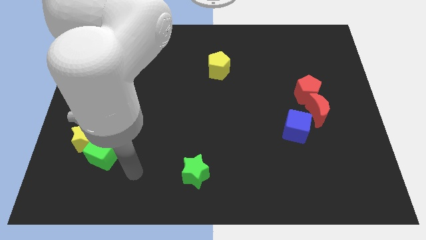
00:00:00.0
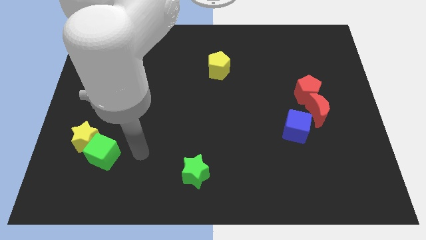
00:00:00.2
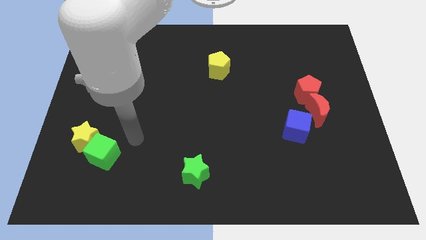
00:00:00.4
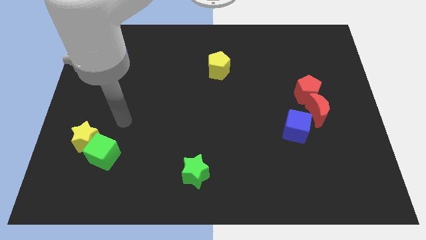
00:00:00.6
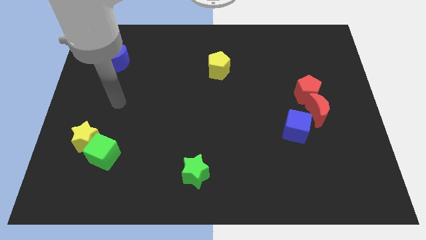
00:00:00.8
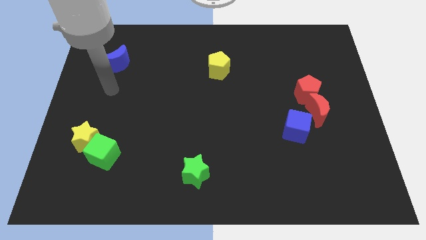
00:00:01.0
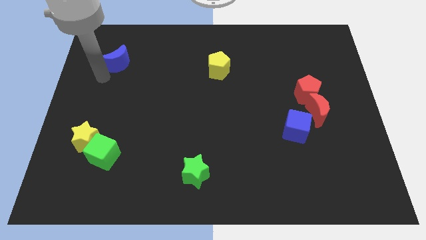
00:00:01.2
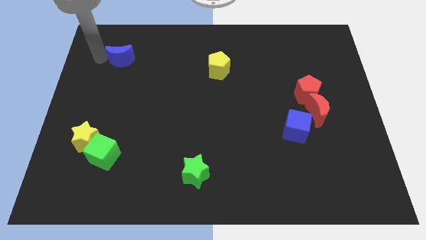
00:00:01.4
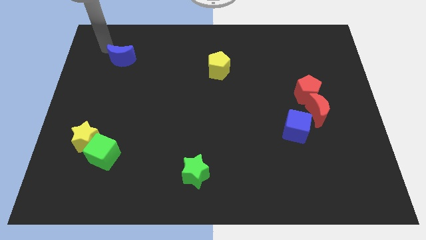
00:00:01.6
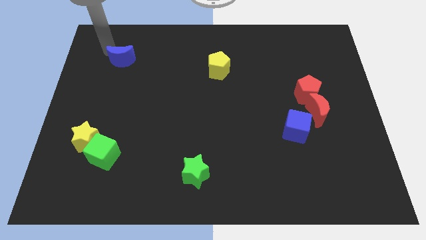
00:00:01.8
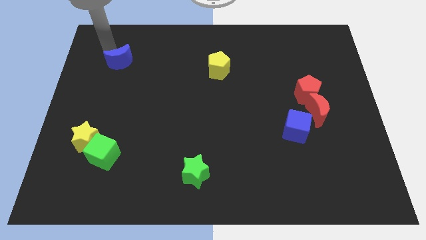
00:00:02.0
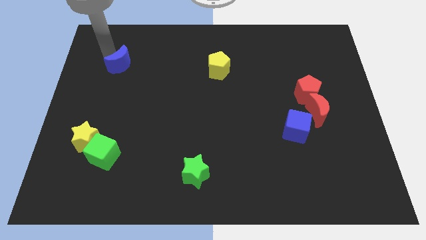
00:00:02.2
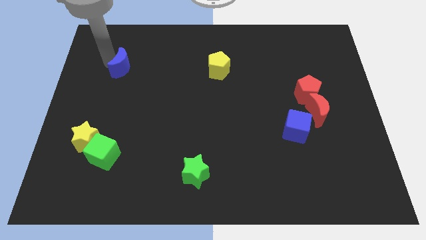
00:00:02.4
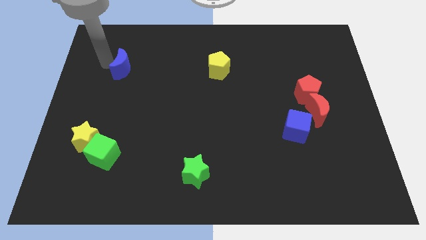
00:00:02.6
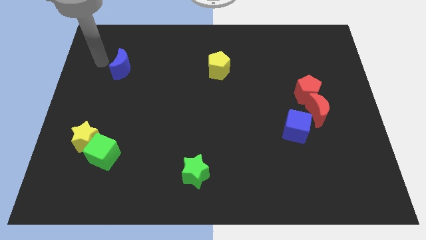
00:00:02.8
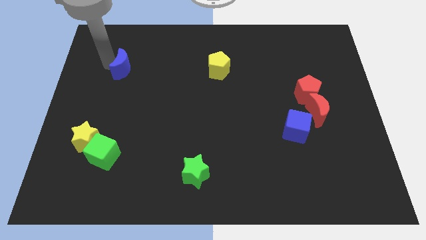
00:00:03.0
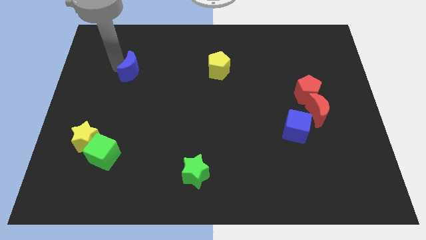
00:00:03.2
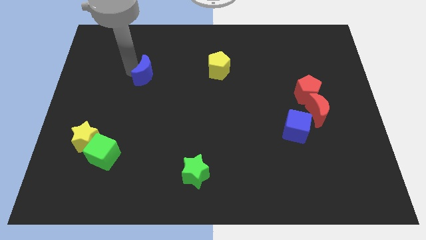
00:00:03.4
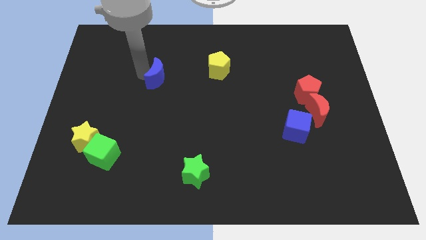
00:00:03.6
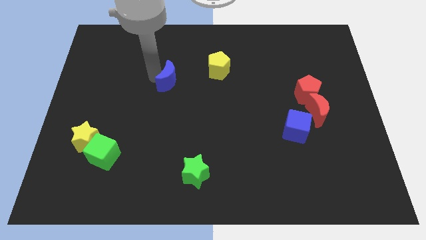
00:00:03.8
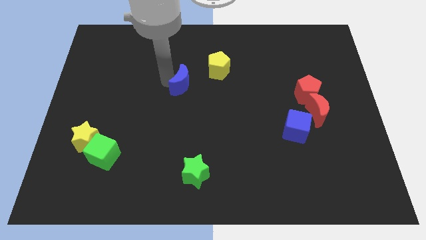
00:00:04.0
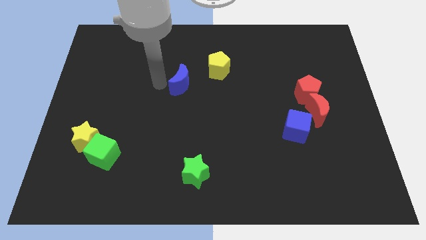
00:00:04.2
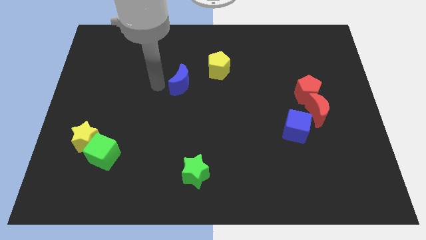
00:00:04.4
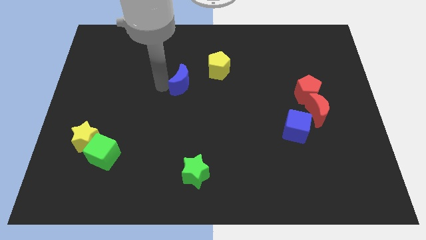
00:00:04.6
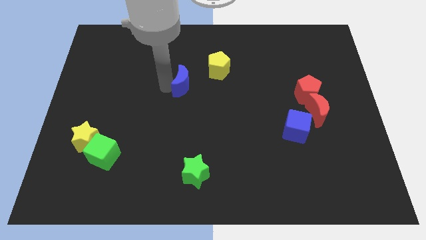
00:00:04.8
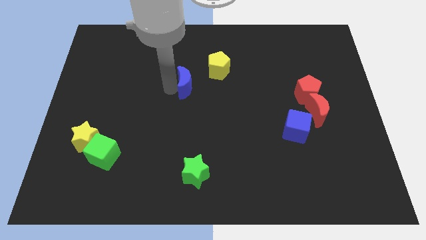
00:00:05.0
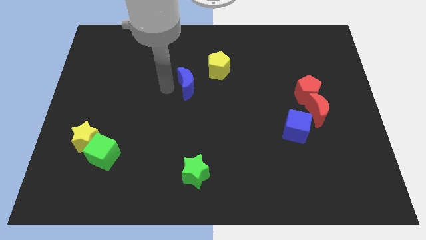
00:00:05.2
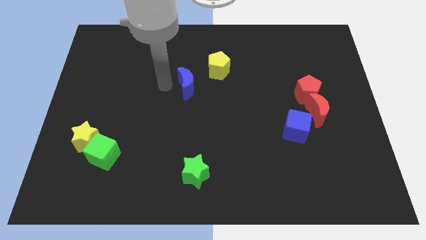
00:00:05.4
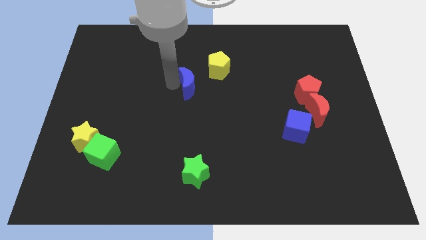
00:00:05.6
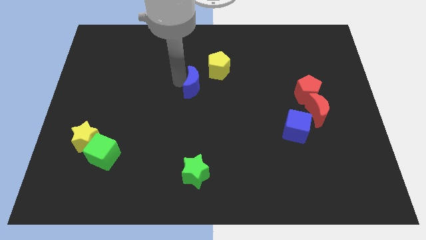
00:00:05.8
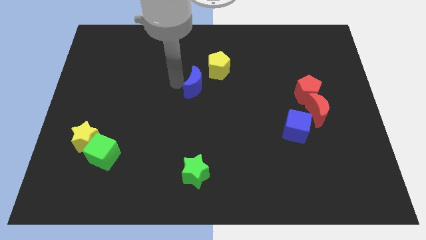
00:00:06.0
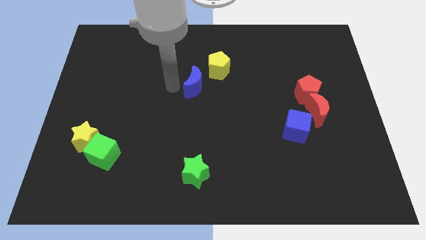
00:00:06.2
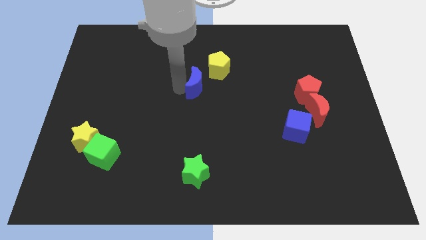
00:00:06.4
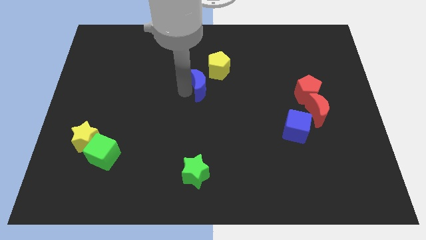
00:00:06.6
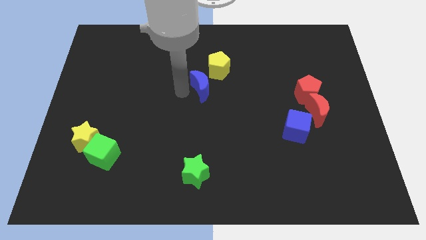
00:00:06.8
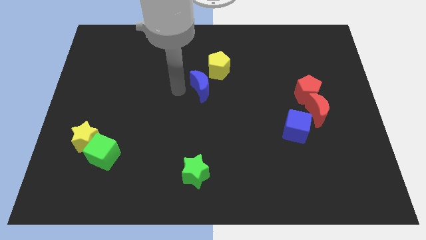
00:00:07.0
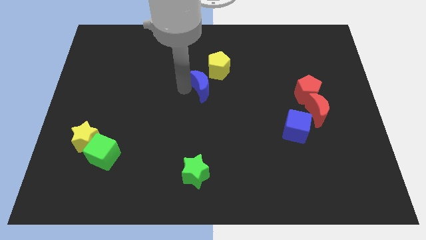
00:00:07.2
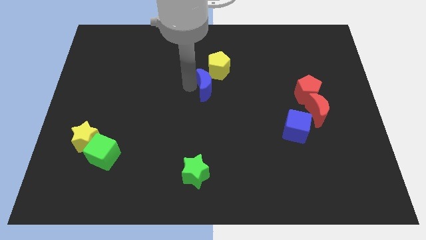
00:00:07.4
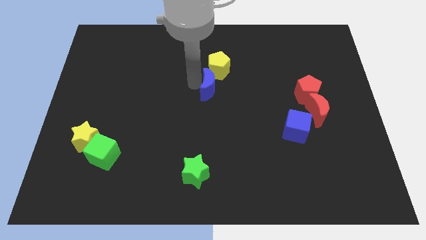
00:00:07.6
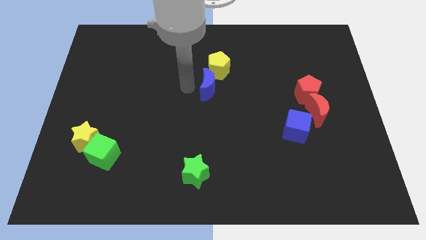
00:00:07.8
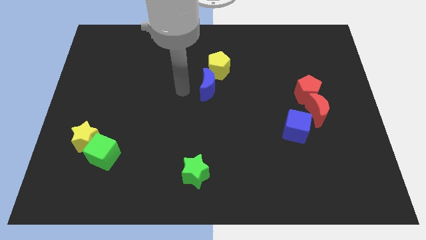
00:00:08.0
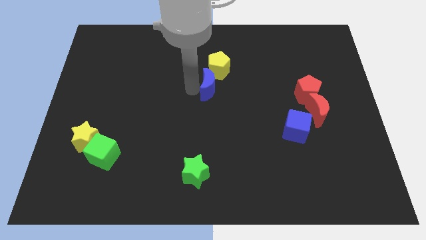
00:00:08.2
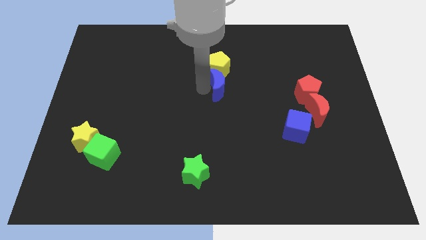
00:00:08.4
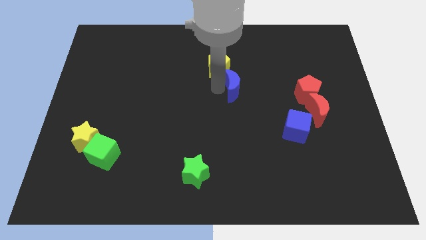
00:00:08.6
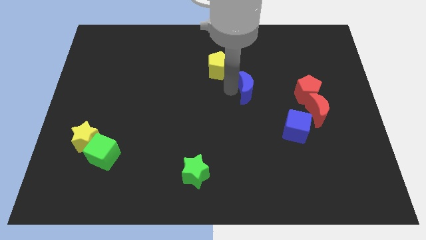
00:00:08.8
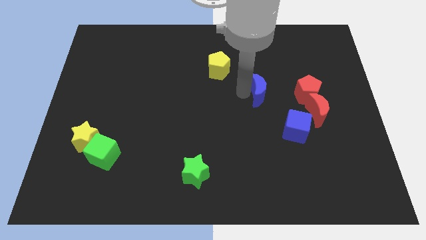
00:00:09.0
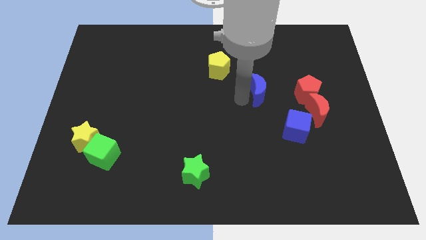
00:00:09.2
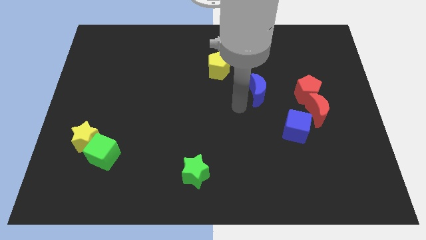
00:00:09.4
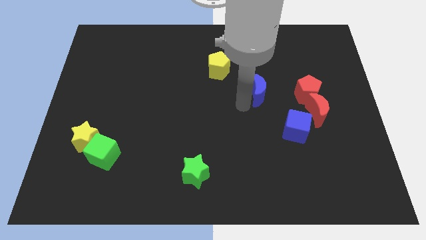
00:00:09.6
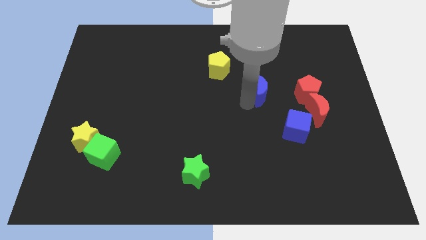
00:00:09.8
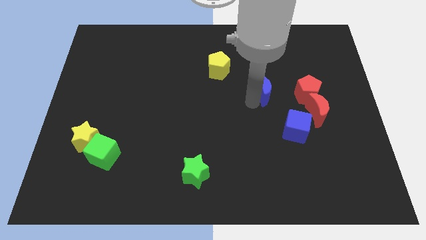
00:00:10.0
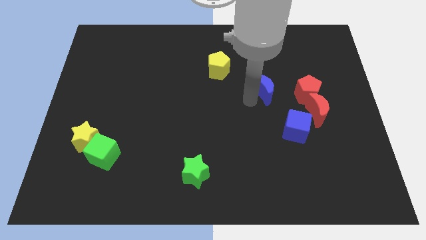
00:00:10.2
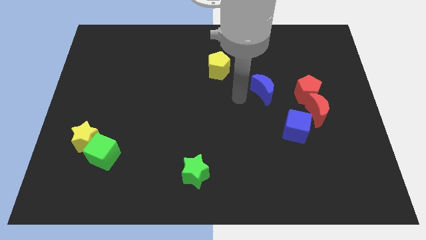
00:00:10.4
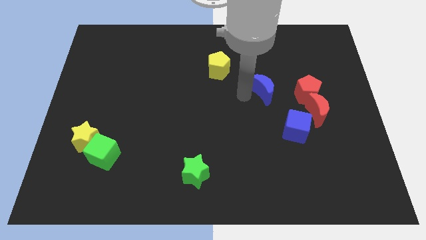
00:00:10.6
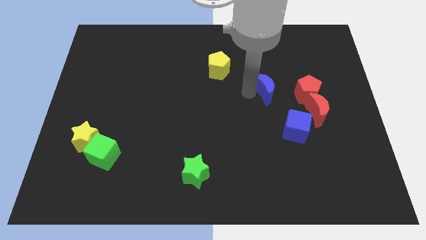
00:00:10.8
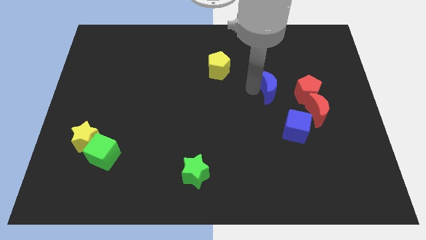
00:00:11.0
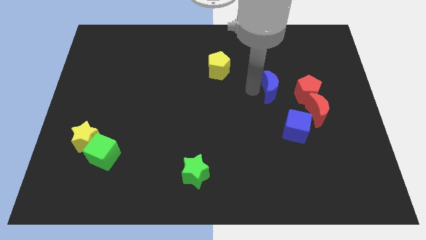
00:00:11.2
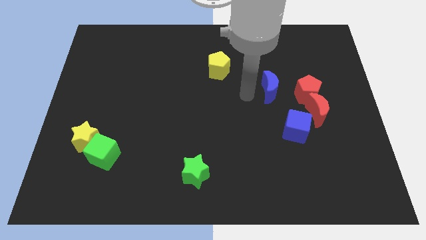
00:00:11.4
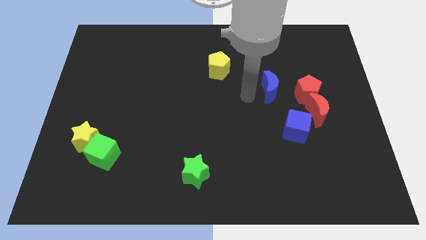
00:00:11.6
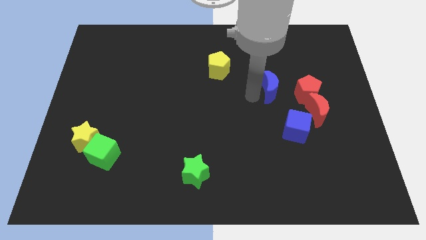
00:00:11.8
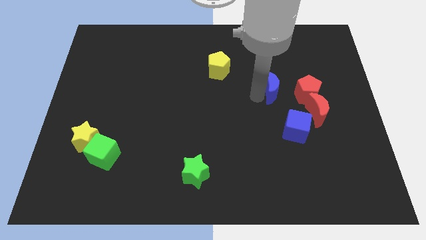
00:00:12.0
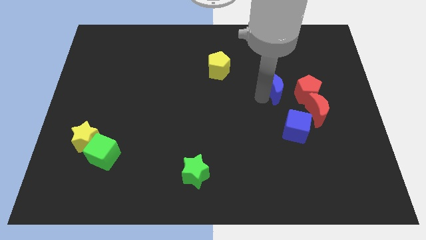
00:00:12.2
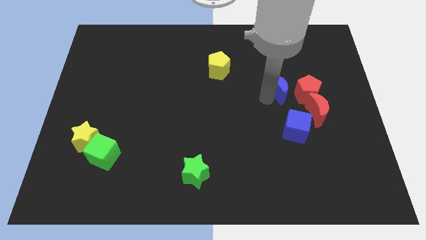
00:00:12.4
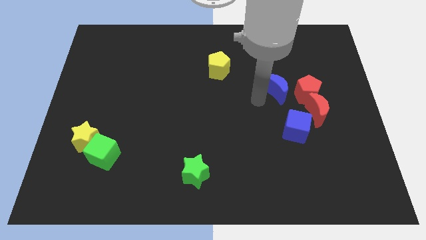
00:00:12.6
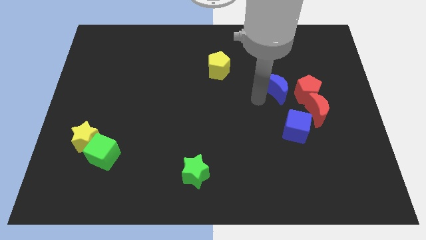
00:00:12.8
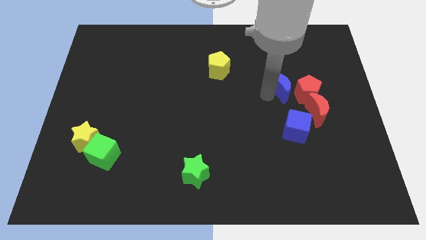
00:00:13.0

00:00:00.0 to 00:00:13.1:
slide the blue moon next to the red pentagon
